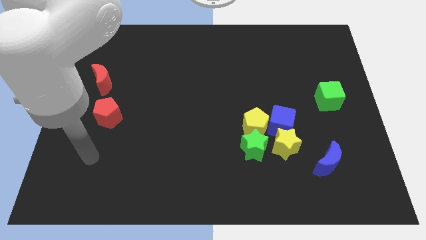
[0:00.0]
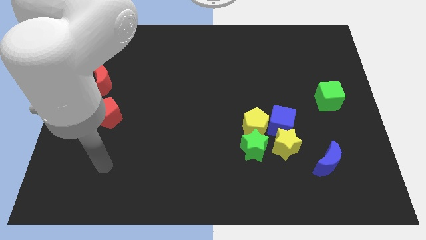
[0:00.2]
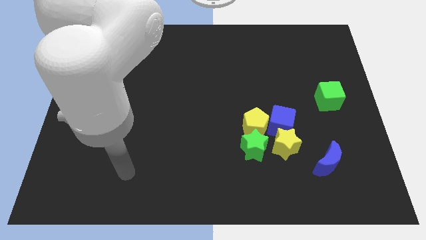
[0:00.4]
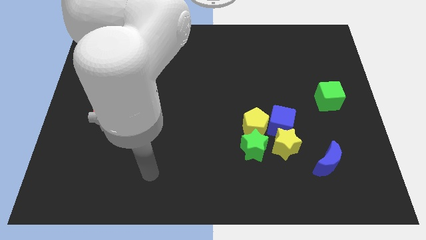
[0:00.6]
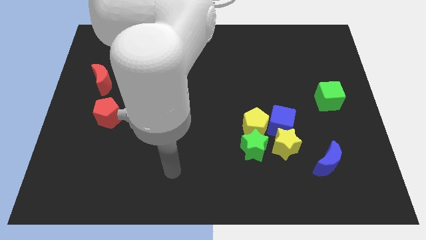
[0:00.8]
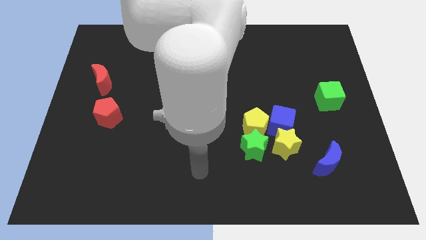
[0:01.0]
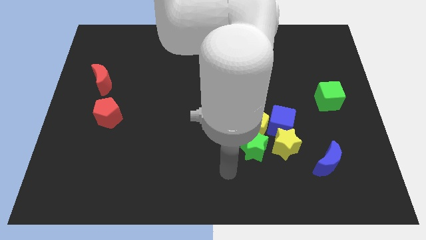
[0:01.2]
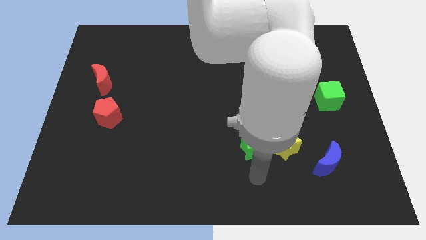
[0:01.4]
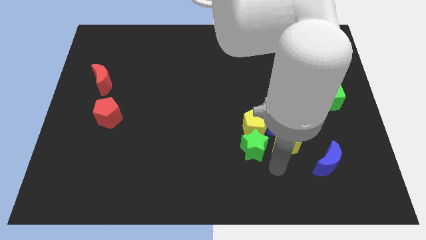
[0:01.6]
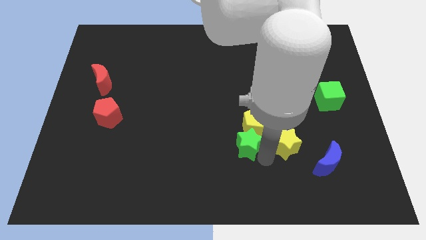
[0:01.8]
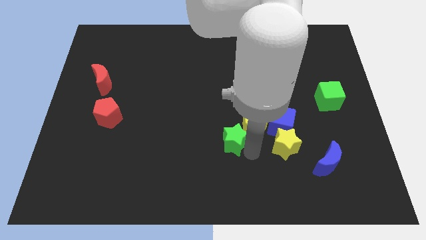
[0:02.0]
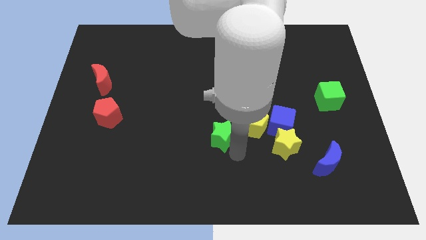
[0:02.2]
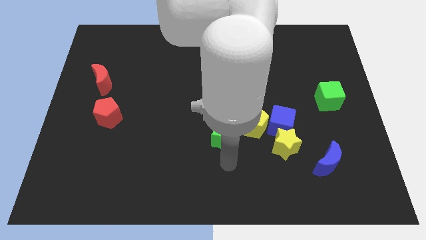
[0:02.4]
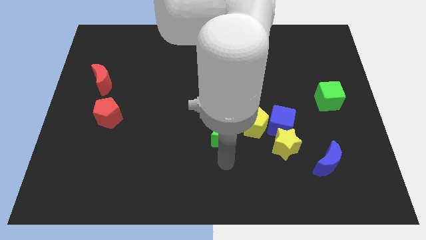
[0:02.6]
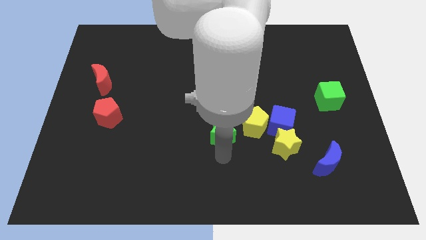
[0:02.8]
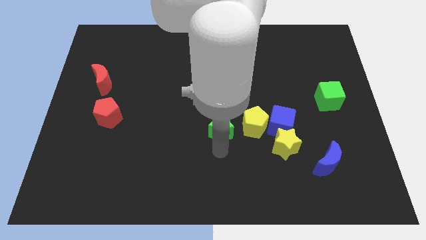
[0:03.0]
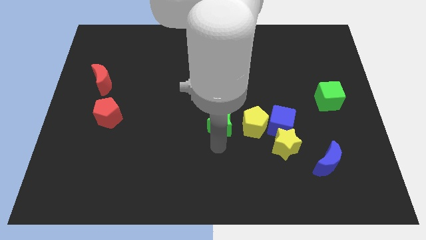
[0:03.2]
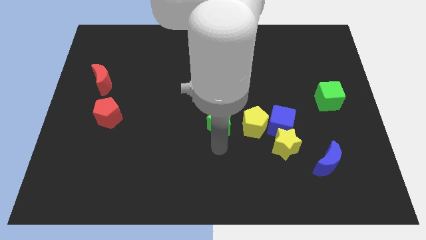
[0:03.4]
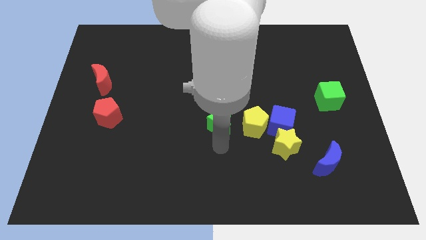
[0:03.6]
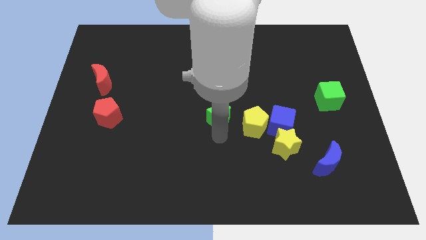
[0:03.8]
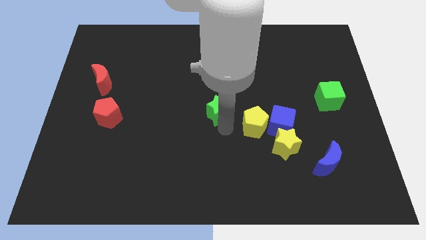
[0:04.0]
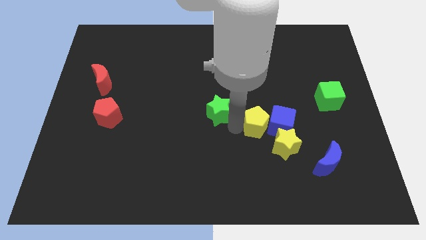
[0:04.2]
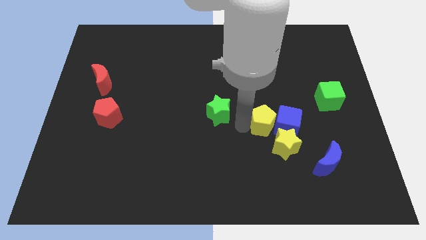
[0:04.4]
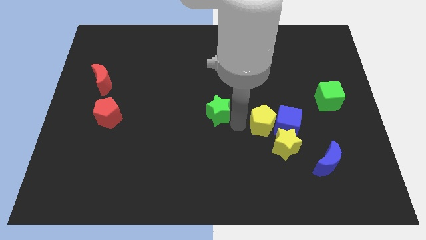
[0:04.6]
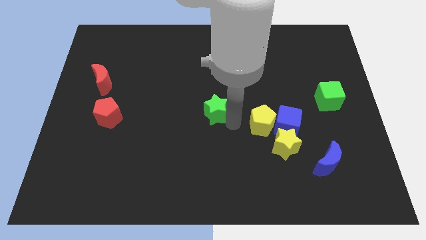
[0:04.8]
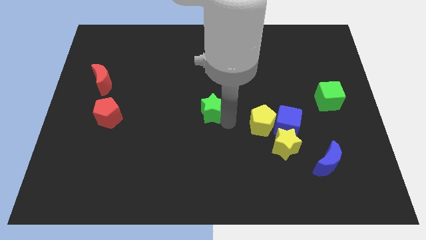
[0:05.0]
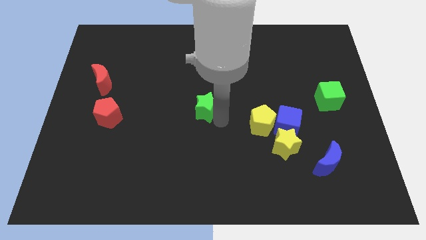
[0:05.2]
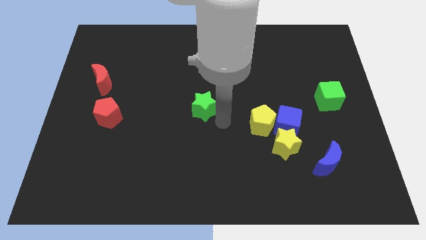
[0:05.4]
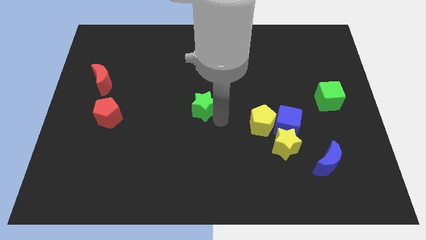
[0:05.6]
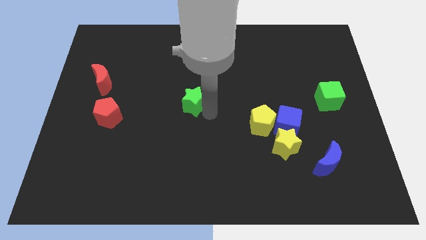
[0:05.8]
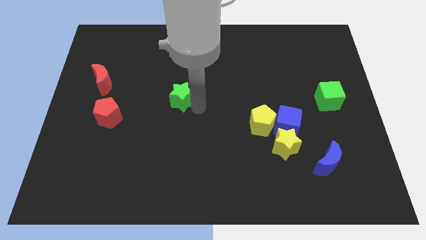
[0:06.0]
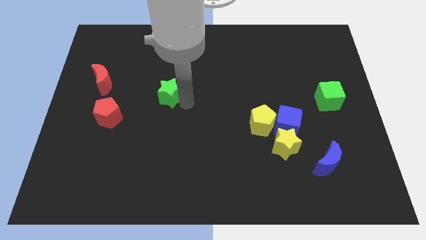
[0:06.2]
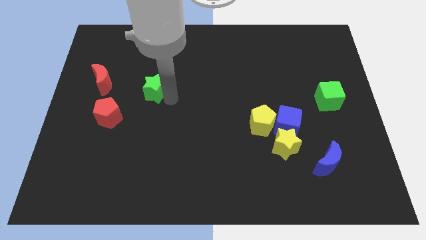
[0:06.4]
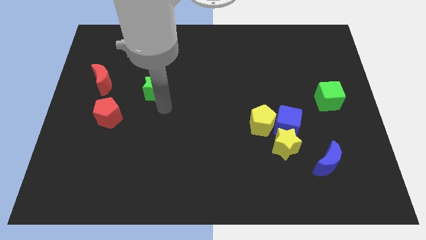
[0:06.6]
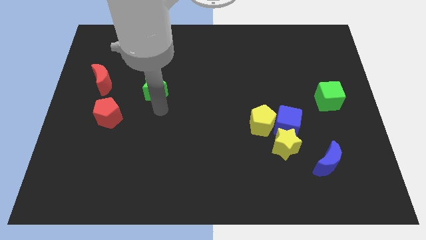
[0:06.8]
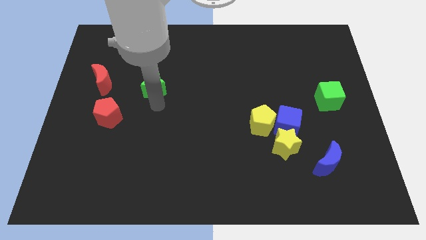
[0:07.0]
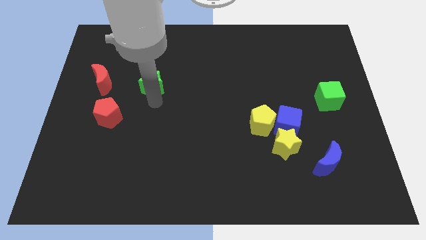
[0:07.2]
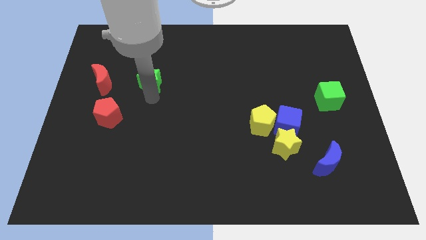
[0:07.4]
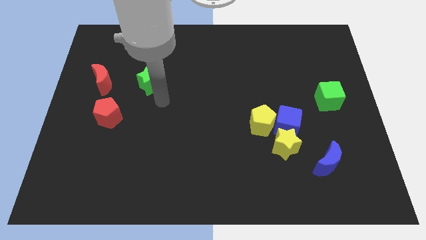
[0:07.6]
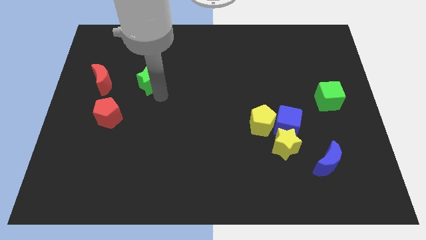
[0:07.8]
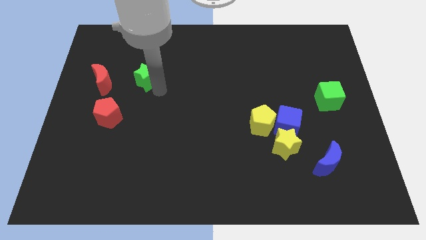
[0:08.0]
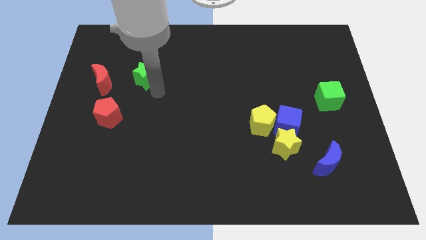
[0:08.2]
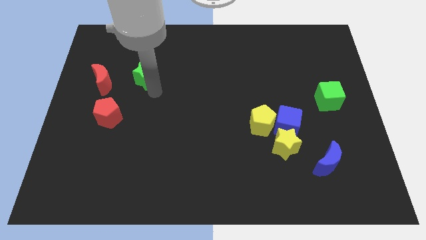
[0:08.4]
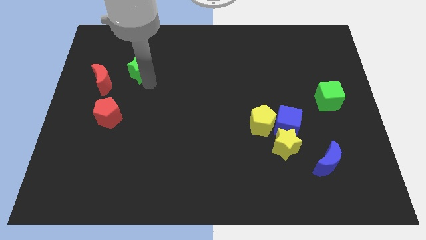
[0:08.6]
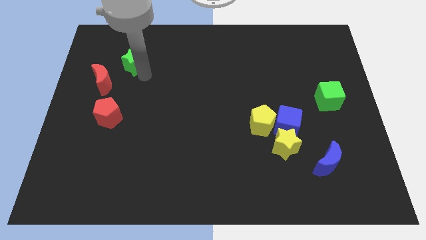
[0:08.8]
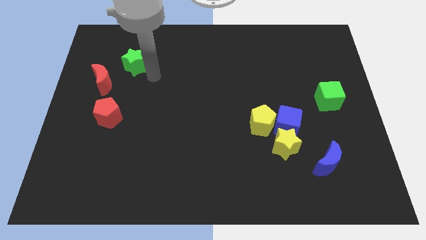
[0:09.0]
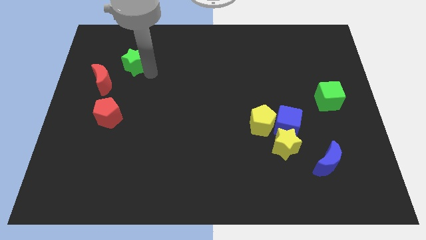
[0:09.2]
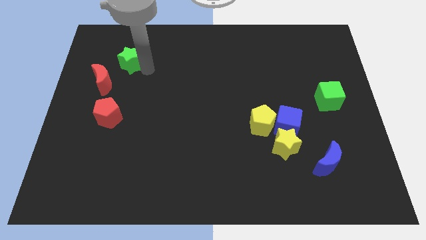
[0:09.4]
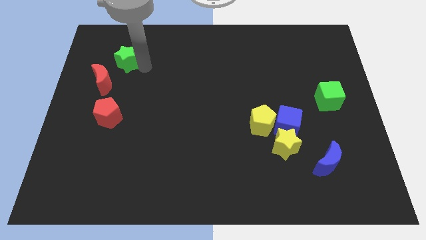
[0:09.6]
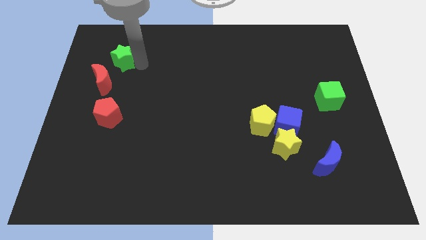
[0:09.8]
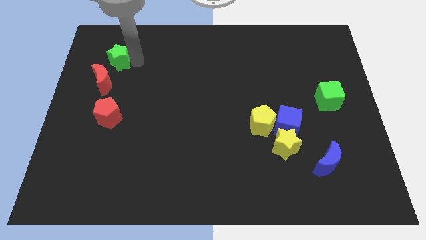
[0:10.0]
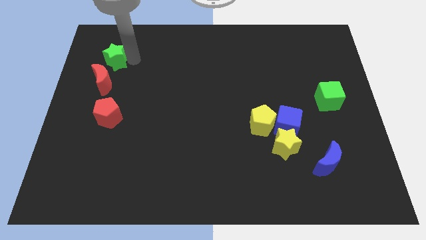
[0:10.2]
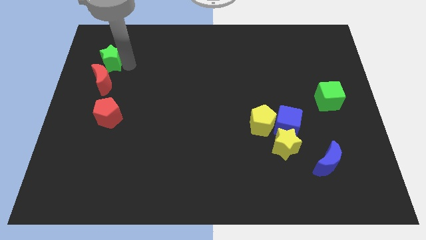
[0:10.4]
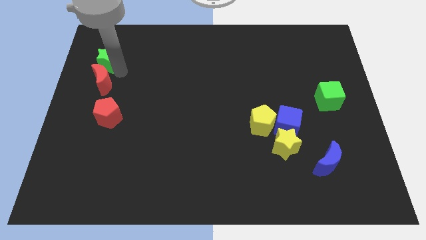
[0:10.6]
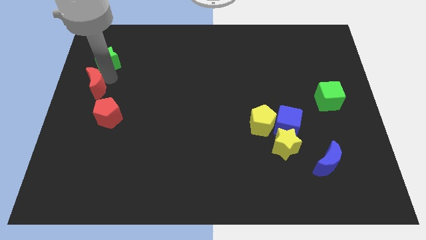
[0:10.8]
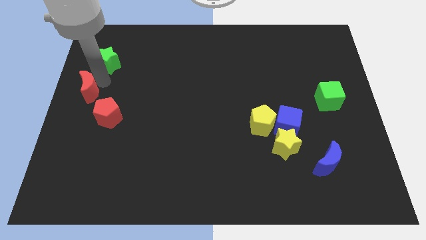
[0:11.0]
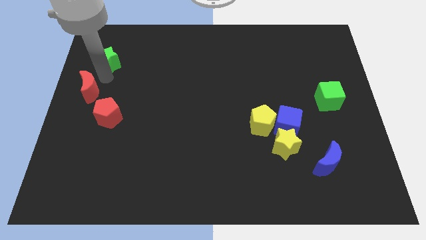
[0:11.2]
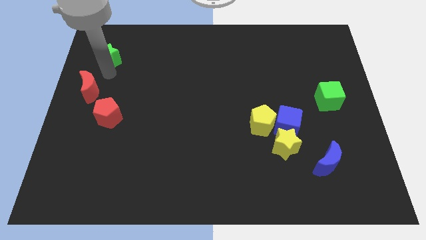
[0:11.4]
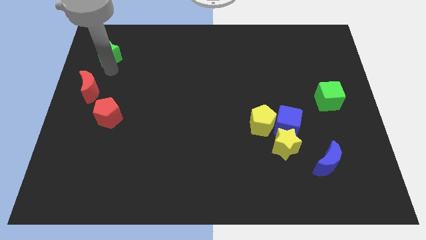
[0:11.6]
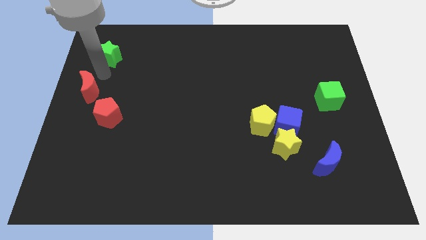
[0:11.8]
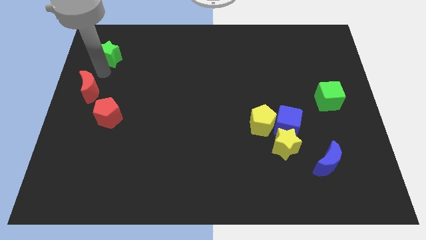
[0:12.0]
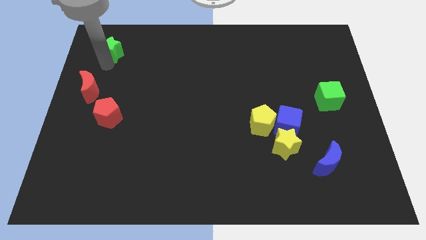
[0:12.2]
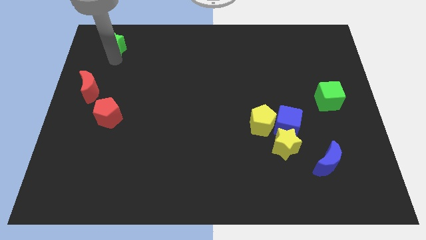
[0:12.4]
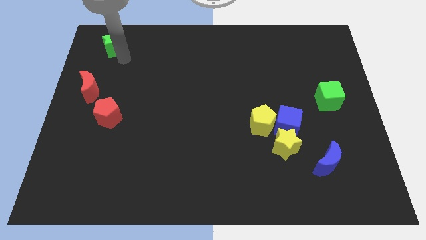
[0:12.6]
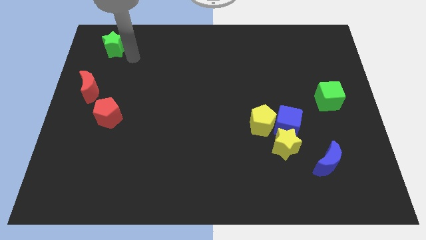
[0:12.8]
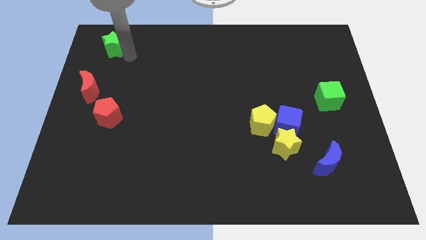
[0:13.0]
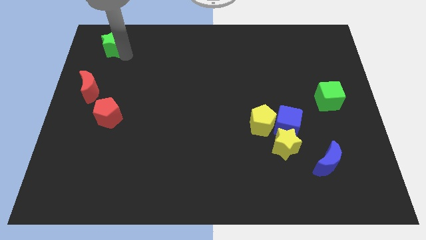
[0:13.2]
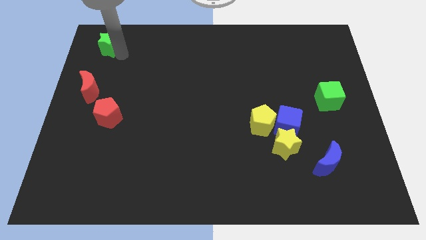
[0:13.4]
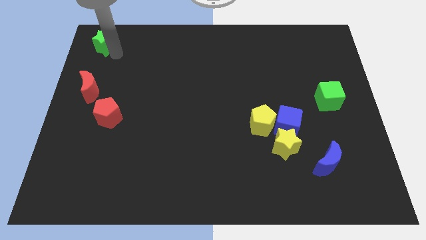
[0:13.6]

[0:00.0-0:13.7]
push the green star to the top left of the board
